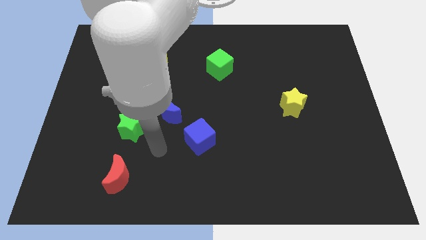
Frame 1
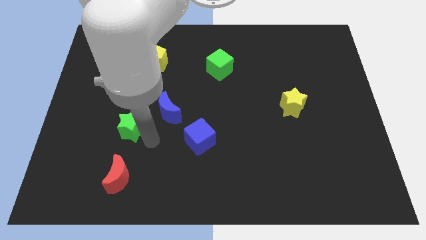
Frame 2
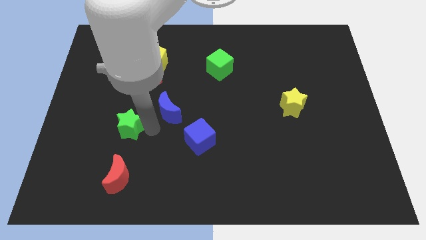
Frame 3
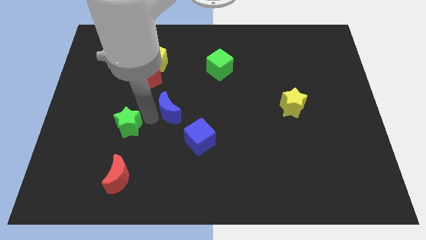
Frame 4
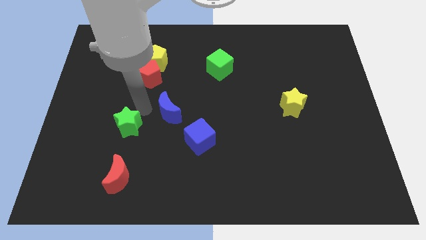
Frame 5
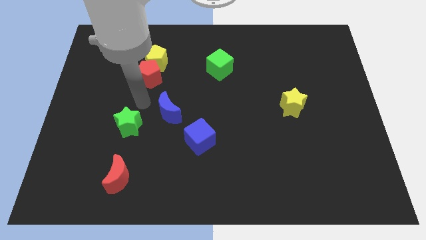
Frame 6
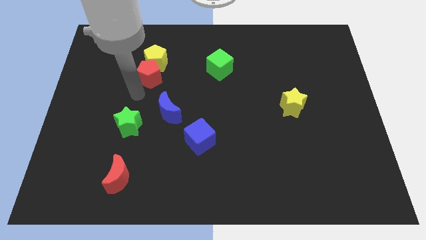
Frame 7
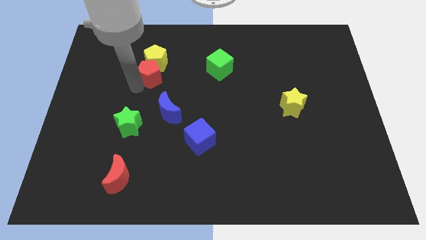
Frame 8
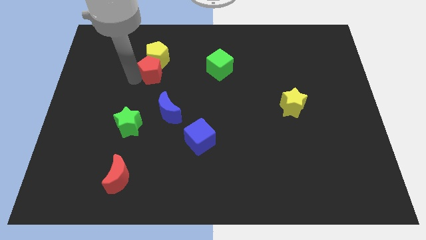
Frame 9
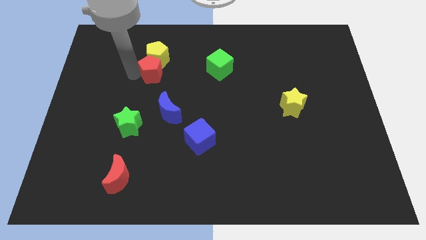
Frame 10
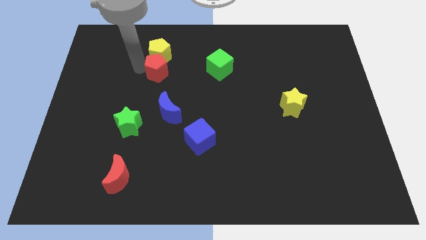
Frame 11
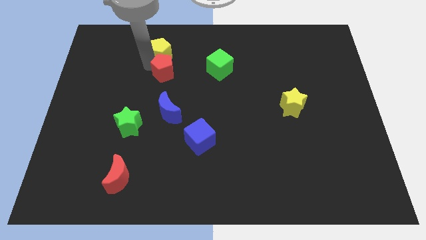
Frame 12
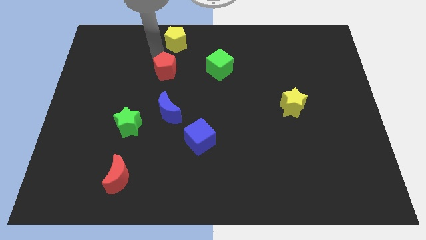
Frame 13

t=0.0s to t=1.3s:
move the red pentagon away from the yellow pentagon

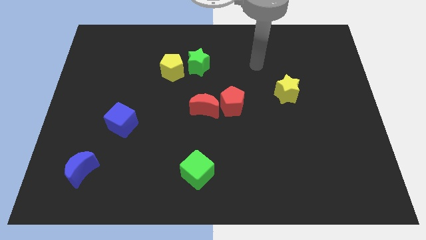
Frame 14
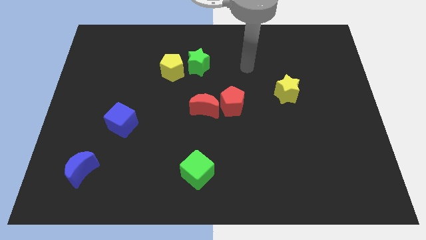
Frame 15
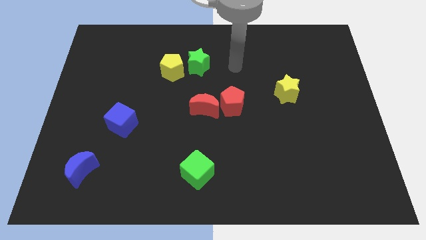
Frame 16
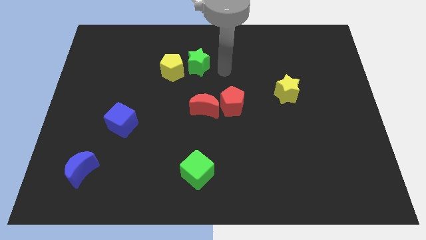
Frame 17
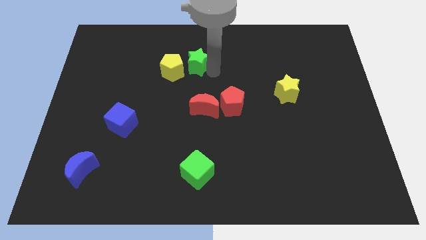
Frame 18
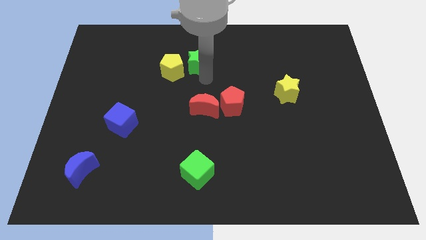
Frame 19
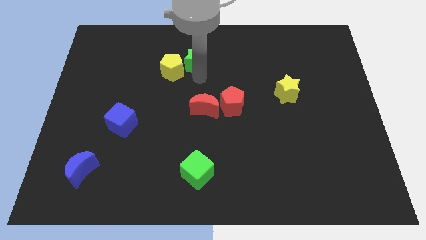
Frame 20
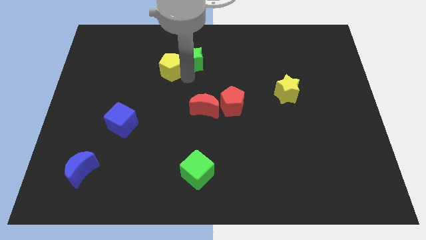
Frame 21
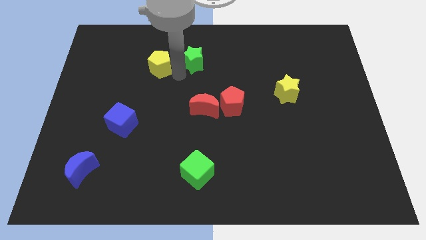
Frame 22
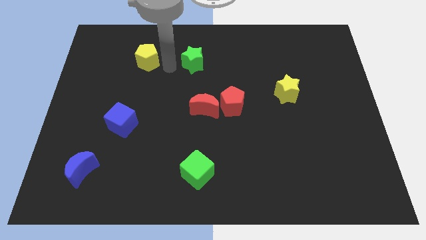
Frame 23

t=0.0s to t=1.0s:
pull the green star apart from the yellow pentagon

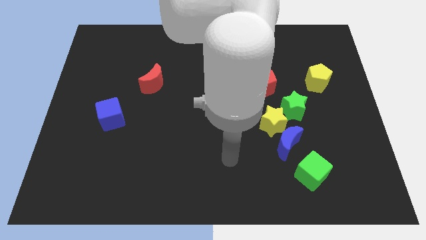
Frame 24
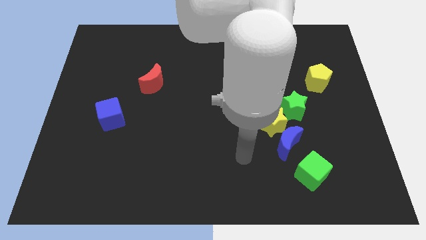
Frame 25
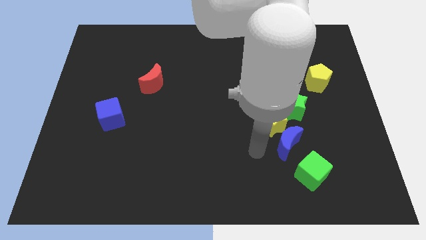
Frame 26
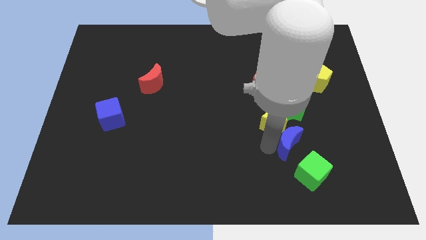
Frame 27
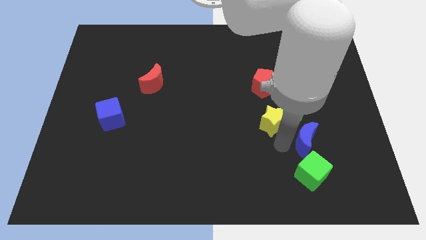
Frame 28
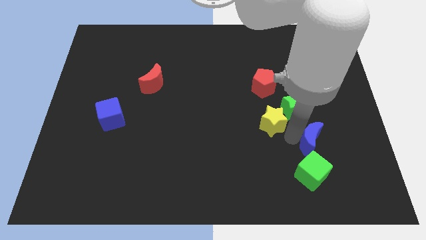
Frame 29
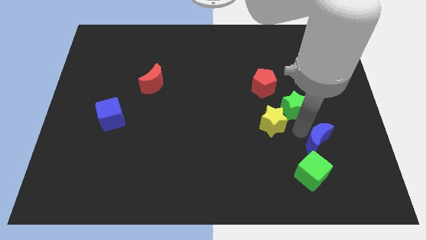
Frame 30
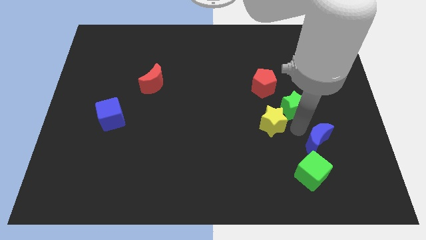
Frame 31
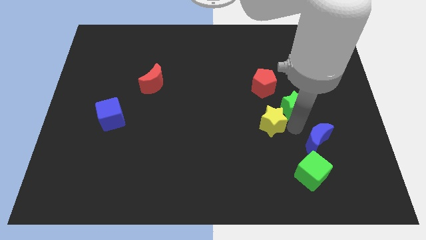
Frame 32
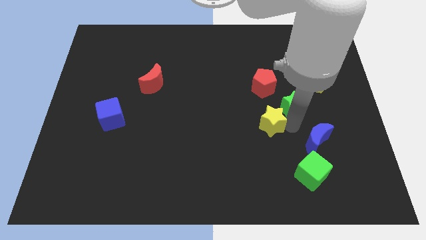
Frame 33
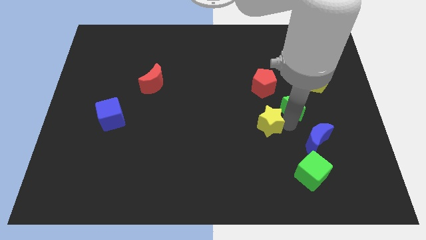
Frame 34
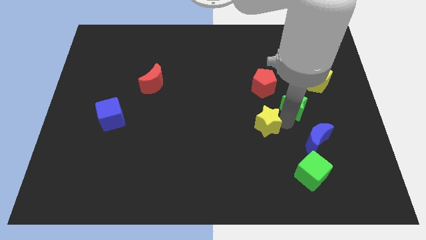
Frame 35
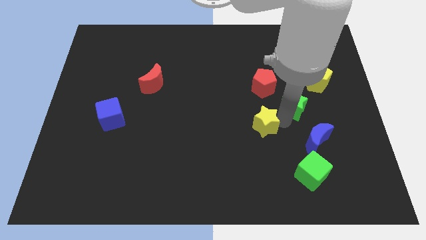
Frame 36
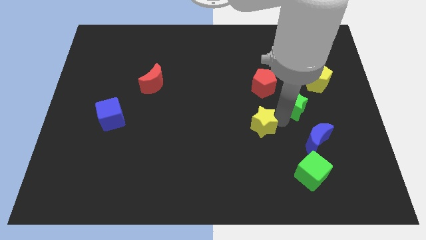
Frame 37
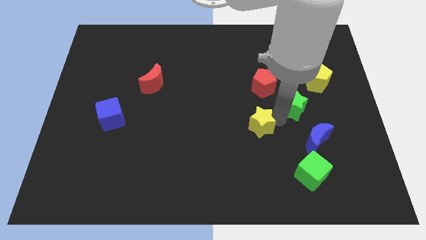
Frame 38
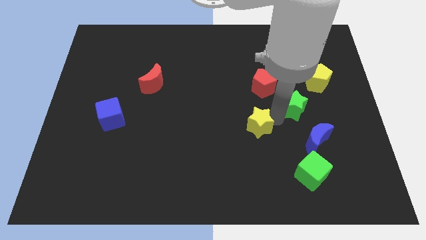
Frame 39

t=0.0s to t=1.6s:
move the yellow star away from the blue moon and green star

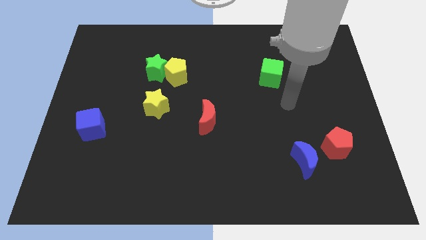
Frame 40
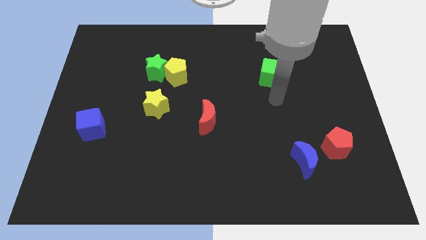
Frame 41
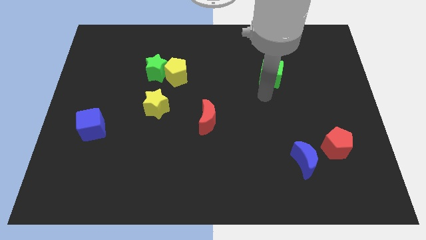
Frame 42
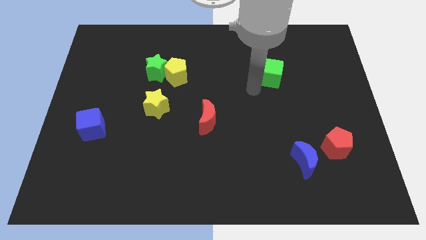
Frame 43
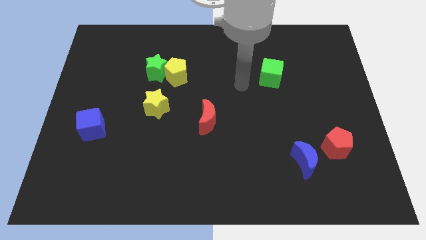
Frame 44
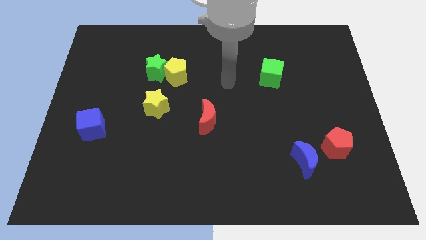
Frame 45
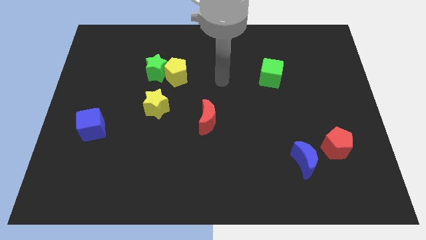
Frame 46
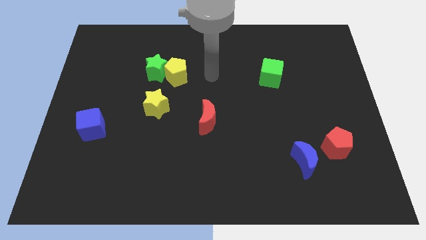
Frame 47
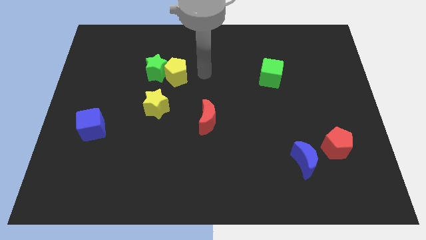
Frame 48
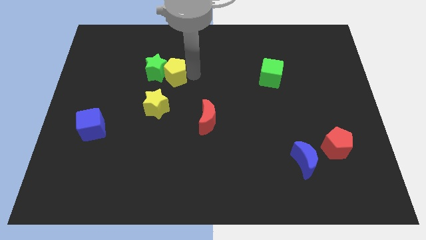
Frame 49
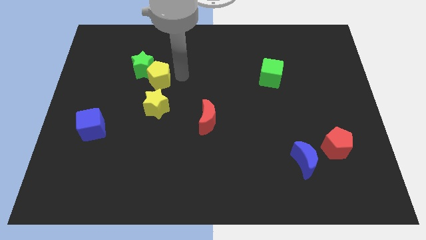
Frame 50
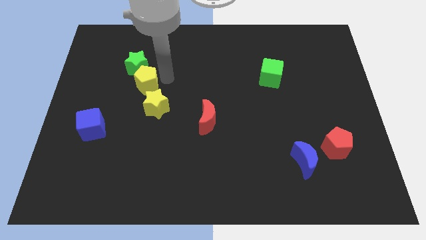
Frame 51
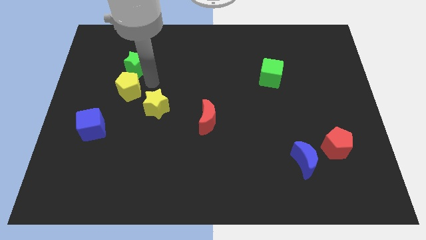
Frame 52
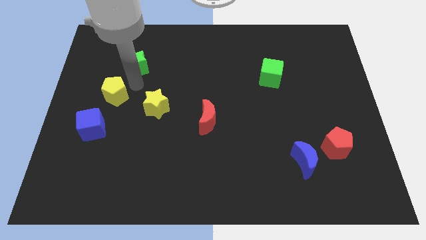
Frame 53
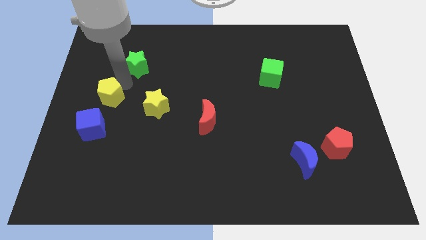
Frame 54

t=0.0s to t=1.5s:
separate the green star from the yellow pentagon

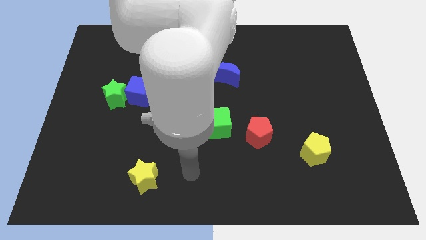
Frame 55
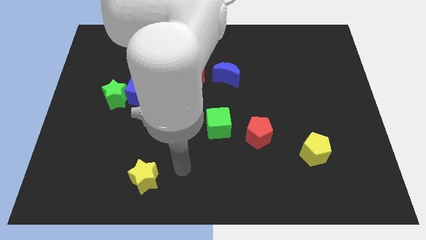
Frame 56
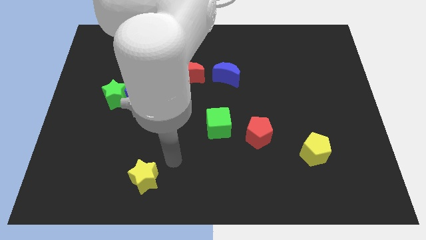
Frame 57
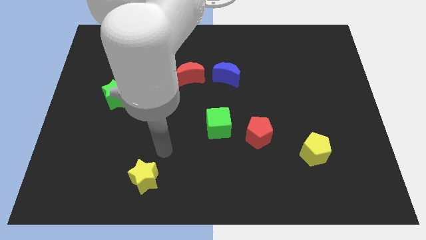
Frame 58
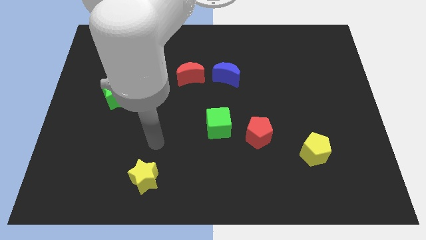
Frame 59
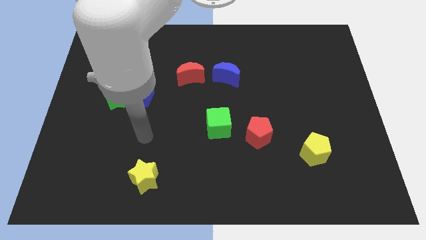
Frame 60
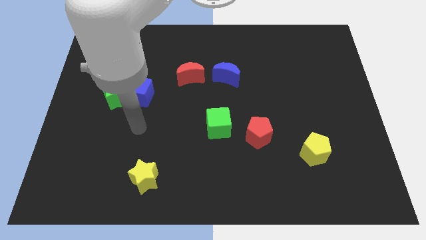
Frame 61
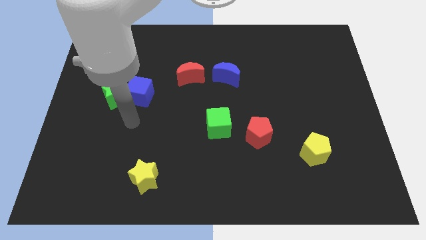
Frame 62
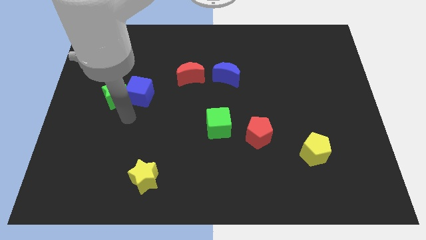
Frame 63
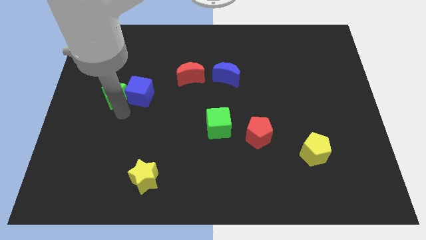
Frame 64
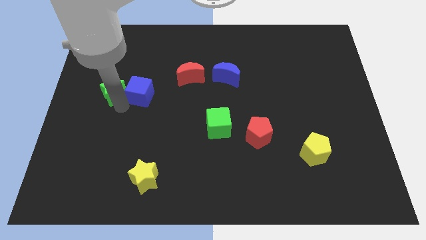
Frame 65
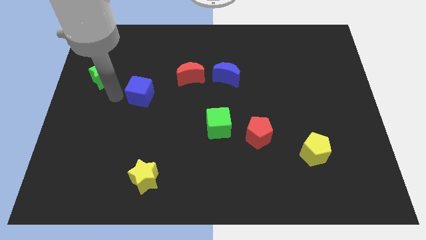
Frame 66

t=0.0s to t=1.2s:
move the blue cube away from the green star

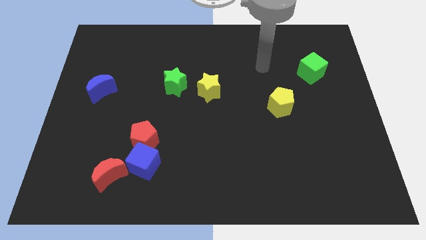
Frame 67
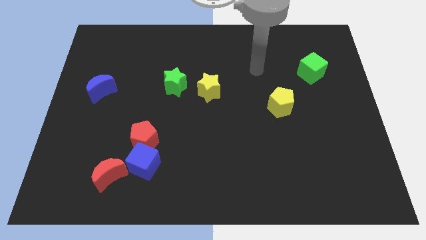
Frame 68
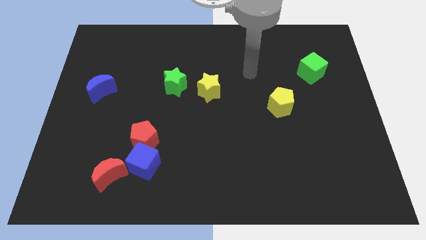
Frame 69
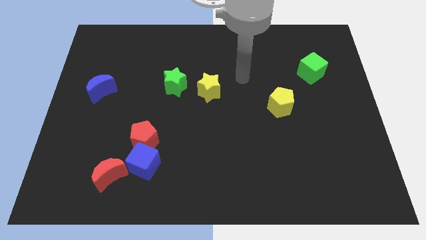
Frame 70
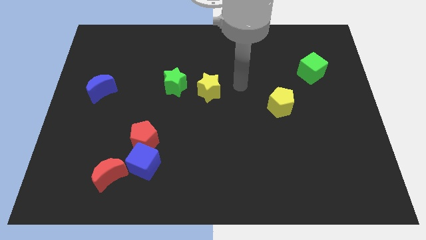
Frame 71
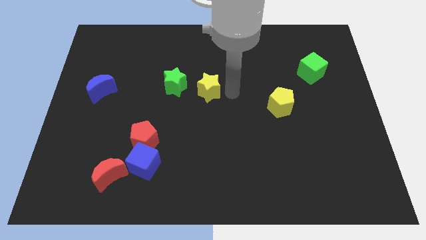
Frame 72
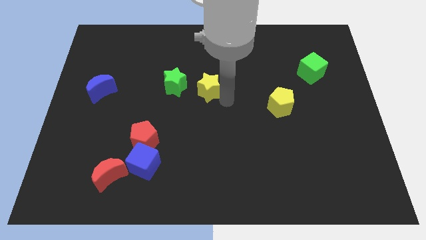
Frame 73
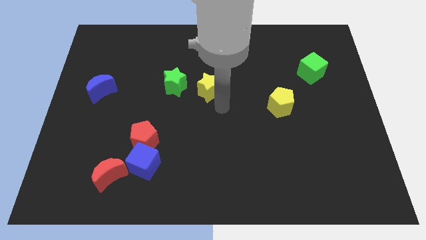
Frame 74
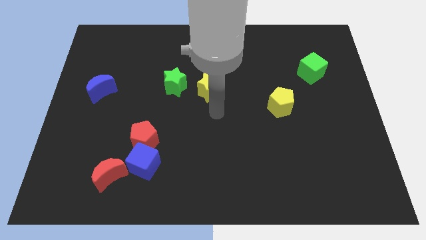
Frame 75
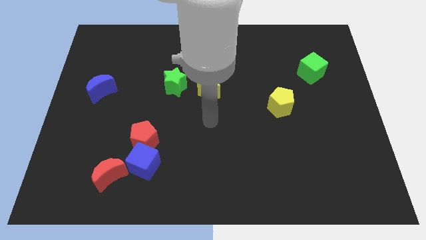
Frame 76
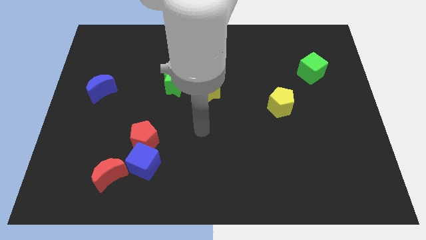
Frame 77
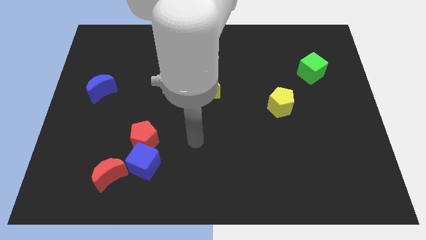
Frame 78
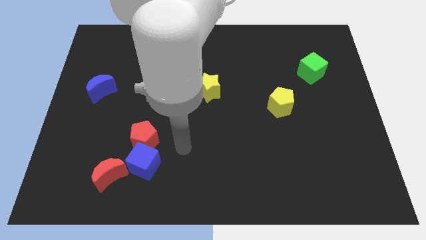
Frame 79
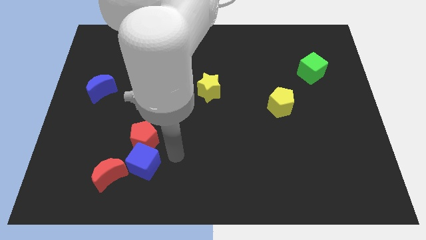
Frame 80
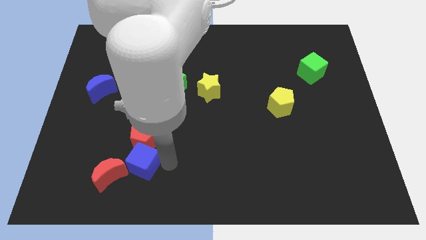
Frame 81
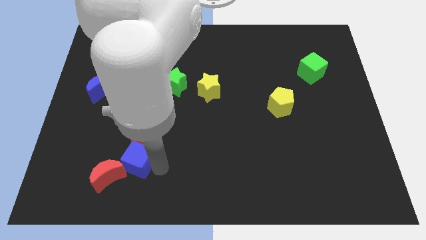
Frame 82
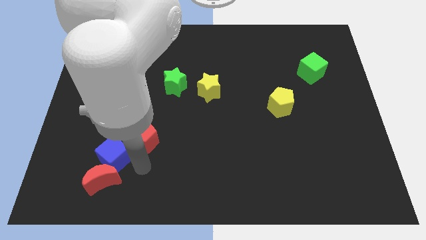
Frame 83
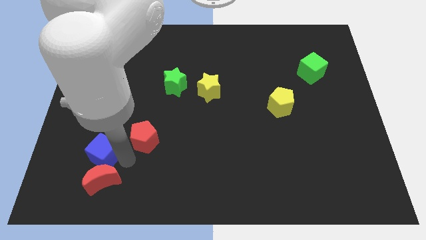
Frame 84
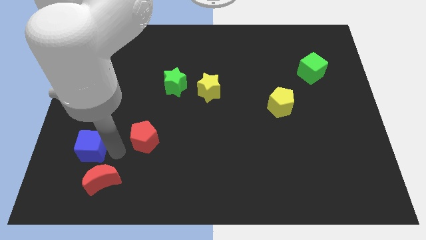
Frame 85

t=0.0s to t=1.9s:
separate the red pentagon from the blue cube

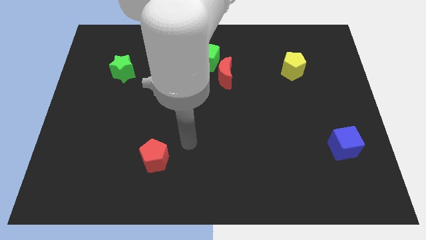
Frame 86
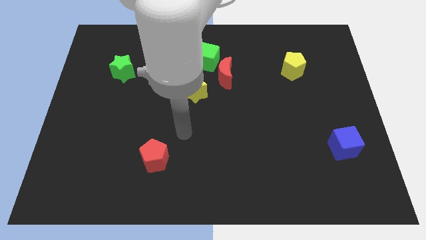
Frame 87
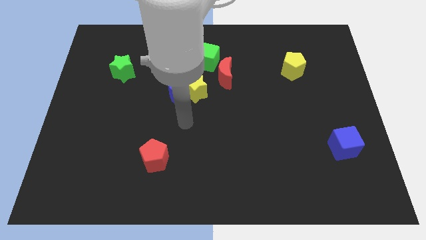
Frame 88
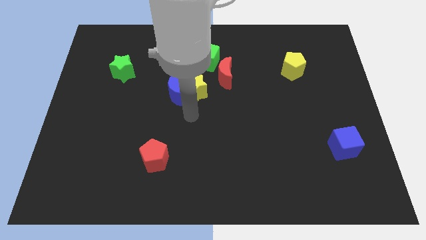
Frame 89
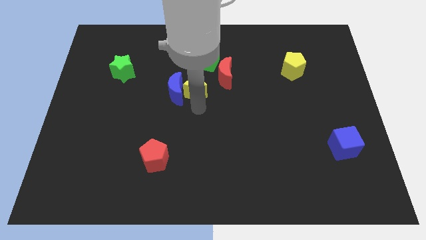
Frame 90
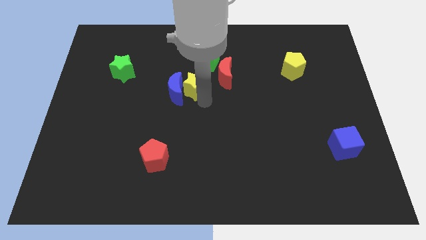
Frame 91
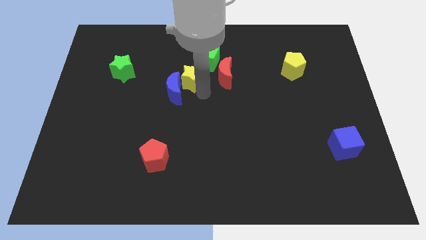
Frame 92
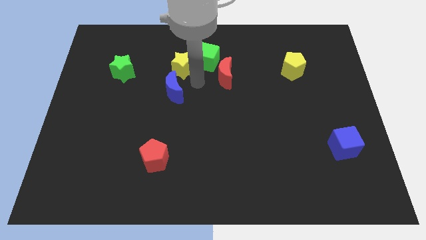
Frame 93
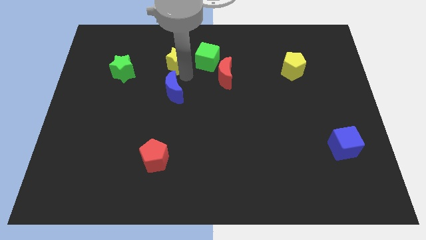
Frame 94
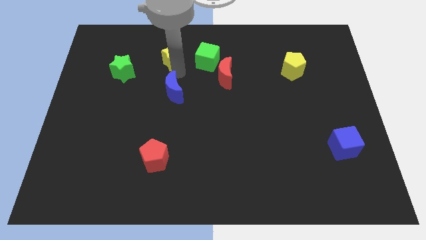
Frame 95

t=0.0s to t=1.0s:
move the blue moon away from the yellow star
